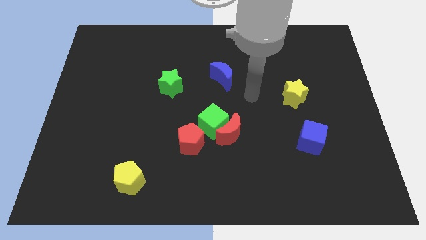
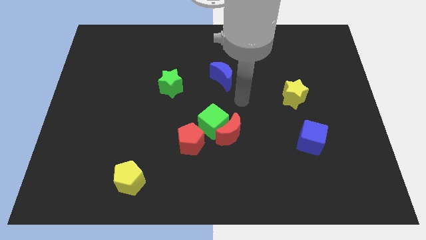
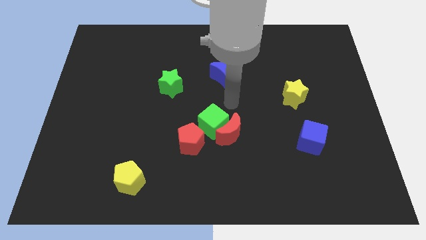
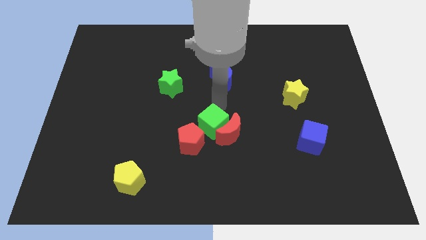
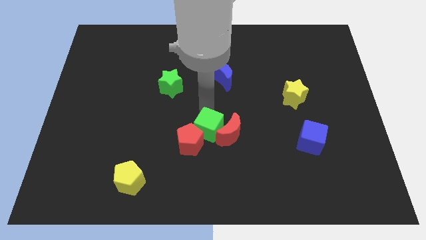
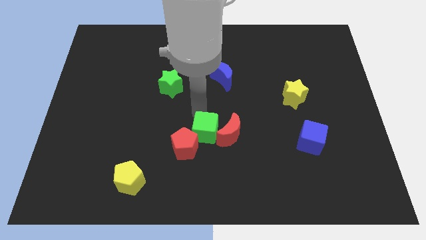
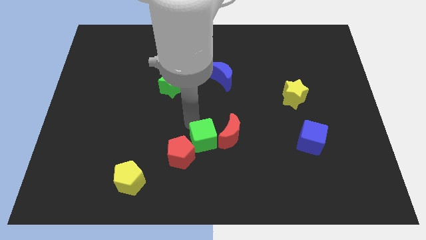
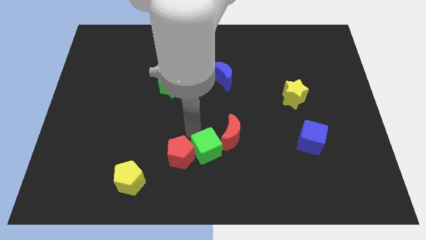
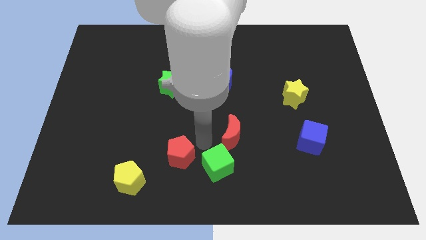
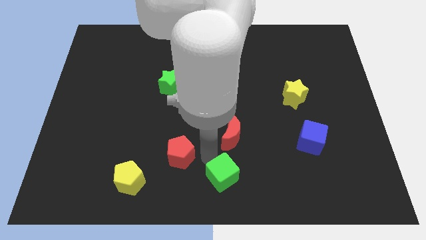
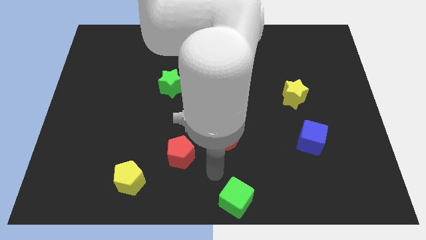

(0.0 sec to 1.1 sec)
move the green cube away from the red moon and red pentagon

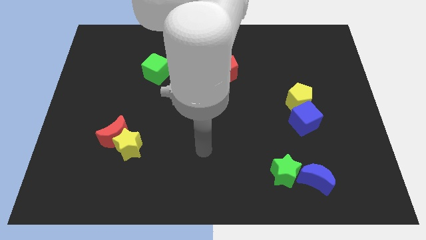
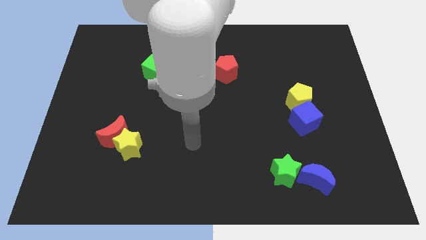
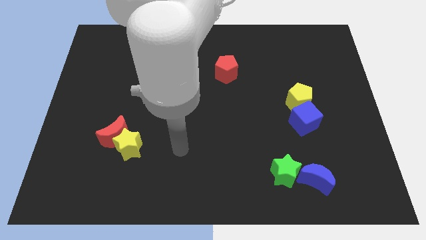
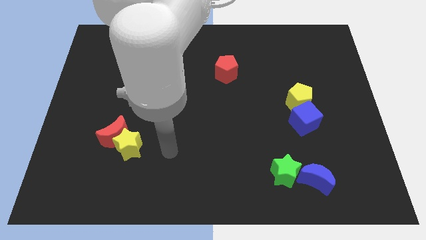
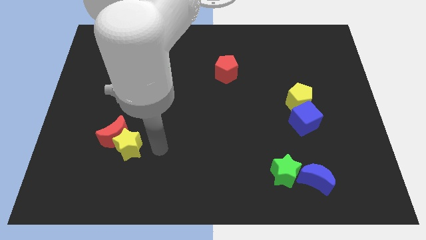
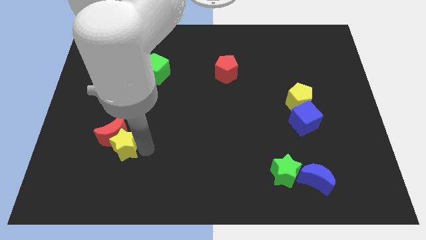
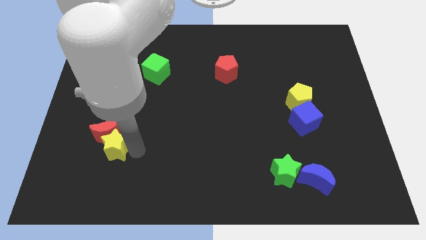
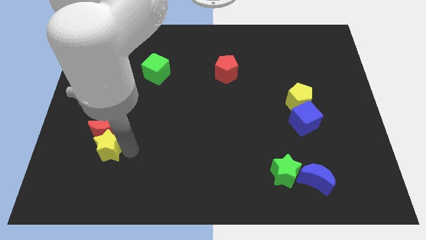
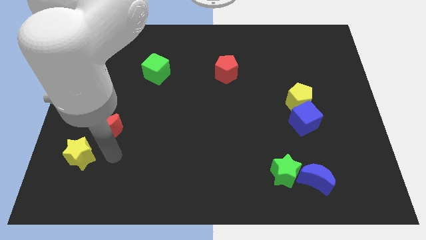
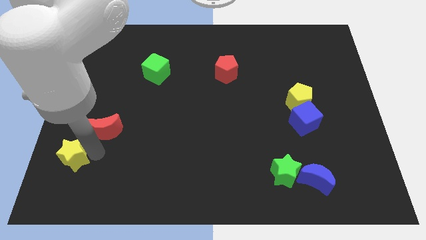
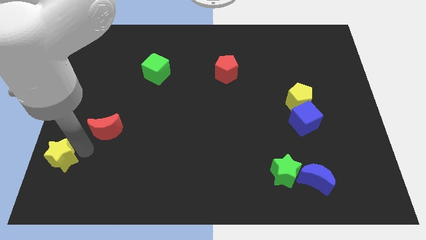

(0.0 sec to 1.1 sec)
separate the red moon from the yellow star

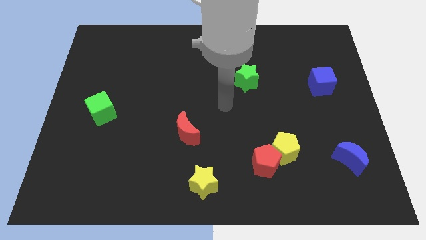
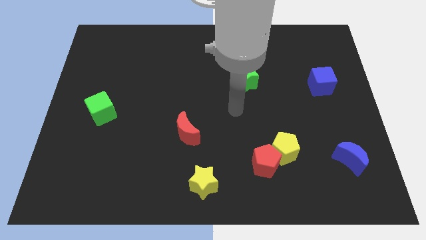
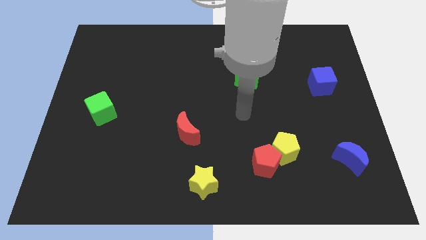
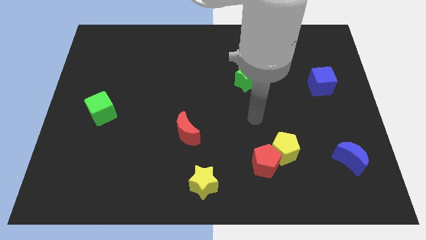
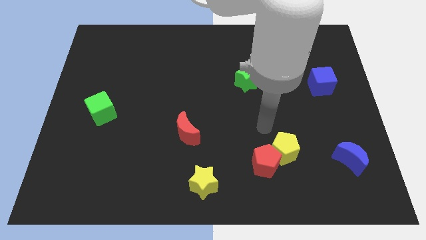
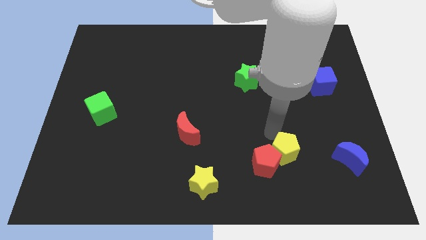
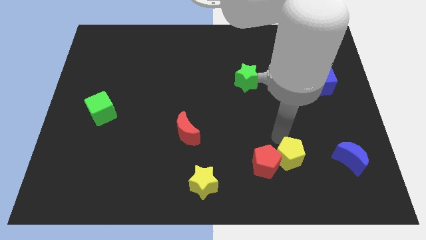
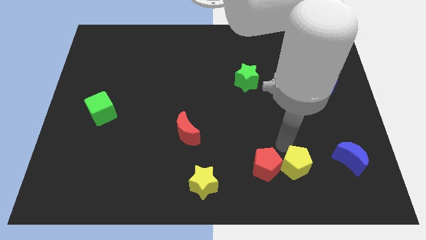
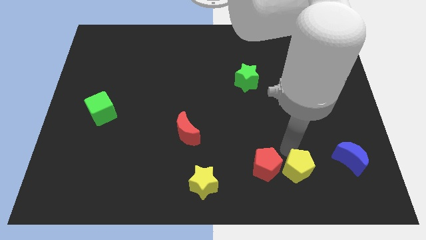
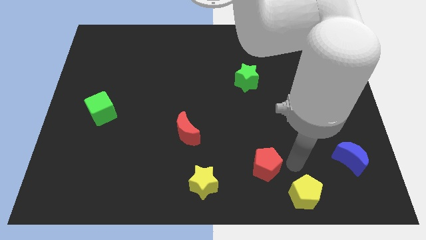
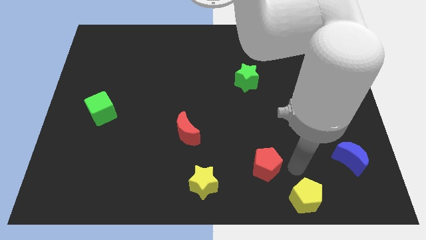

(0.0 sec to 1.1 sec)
separate the red pentagon from the yellow pentagon

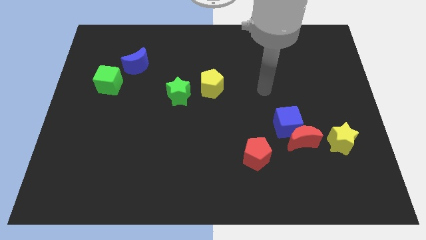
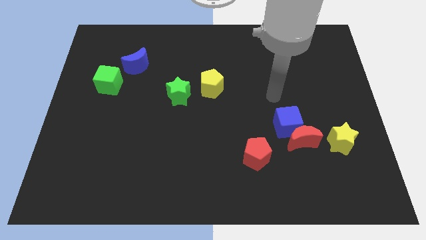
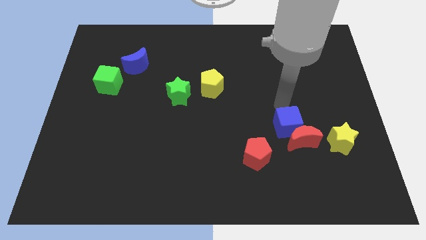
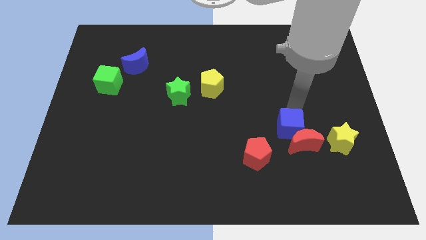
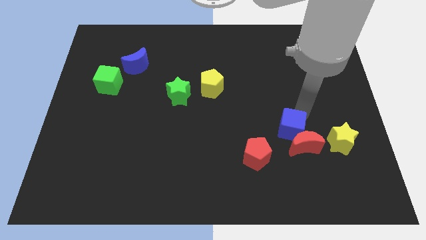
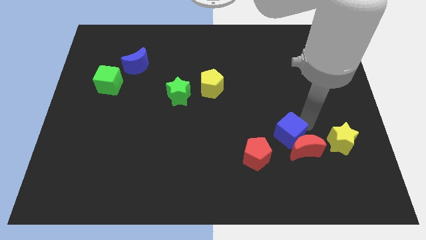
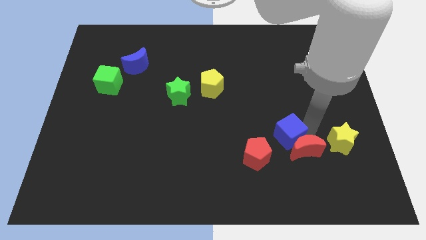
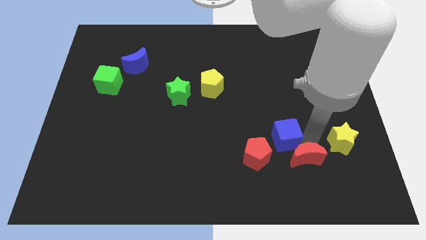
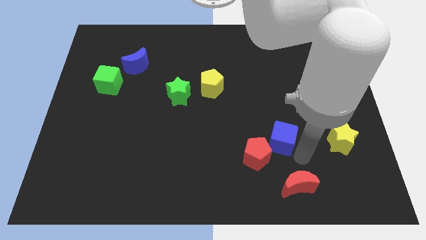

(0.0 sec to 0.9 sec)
move the blue cube away from the red moon

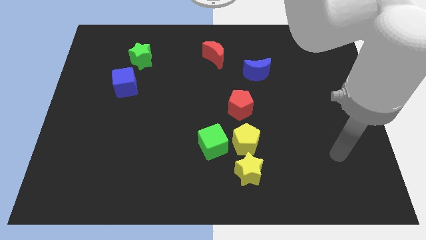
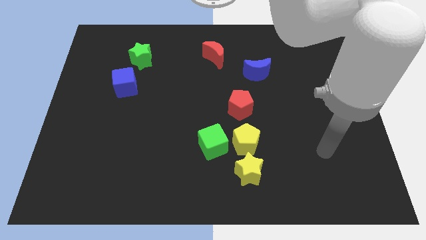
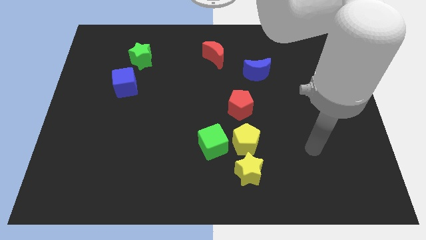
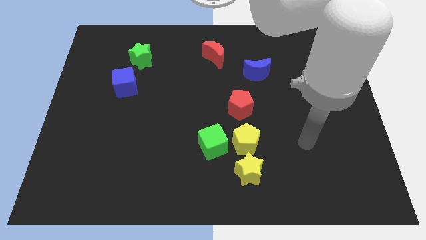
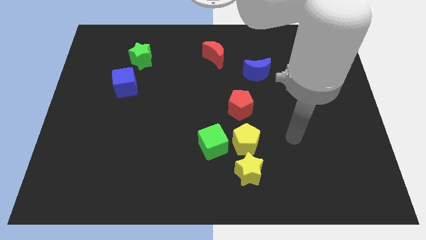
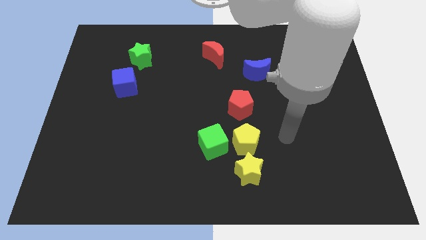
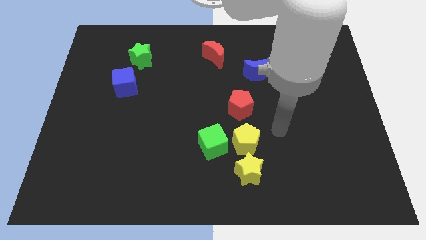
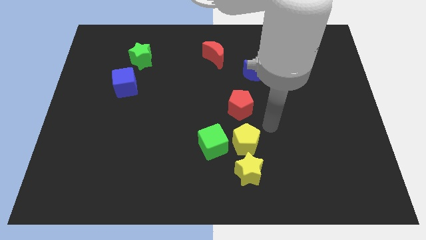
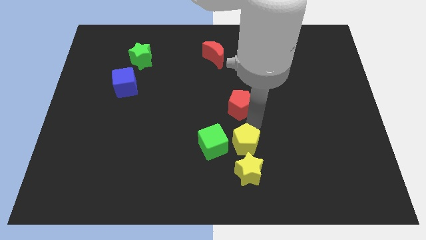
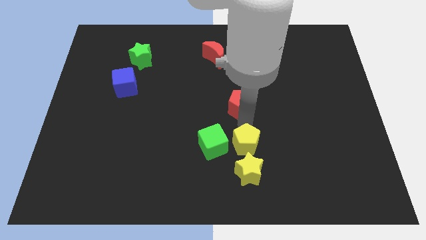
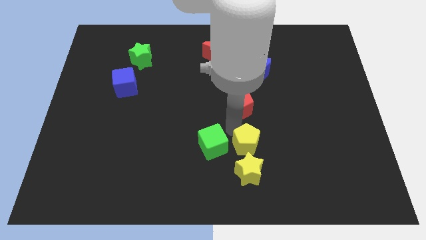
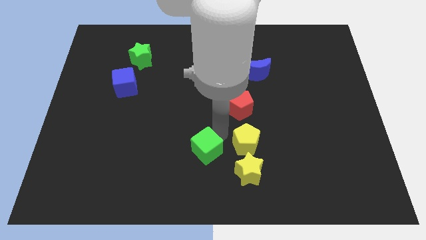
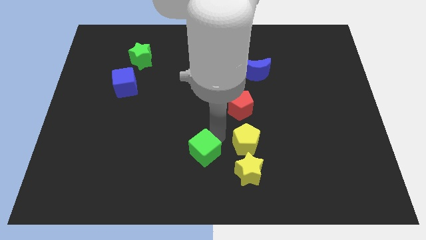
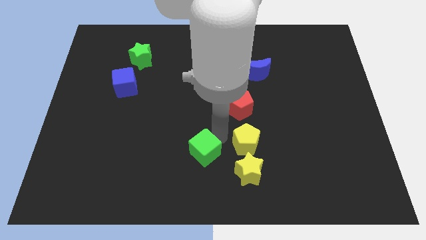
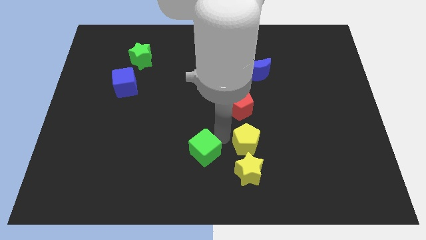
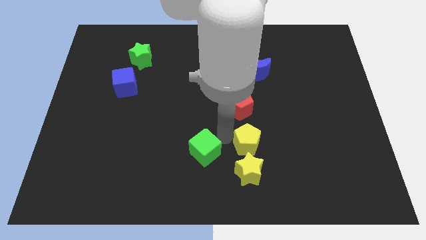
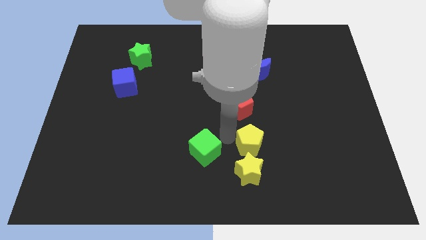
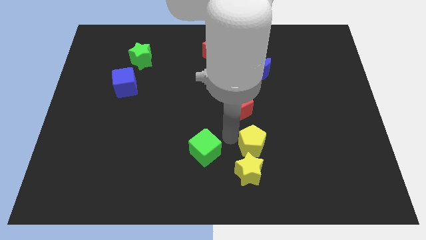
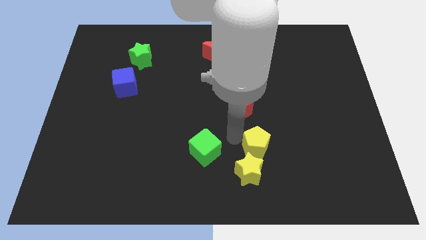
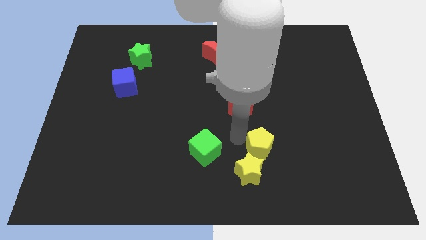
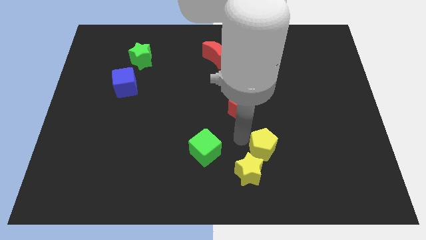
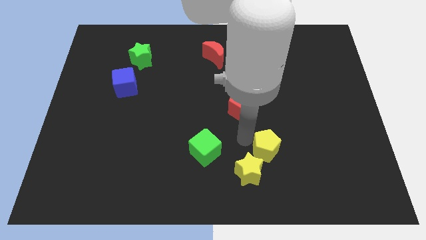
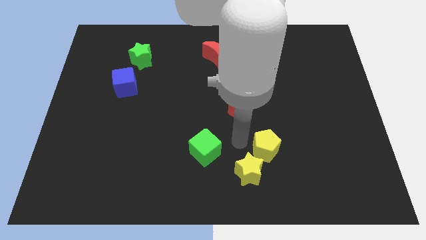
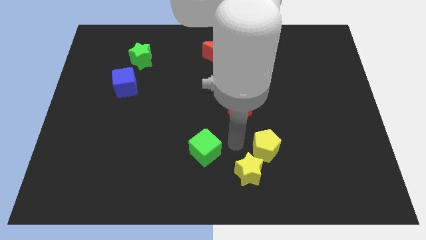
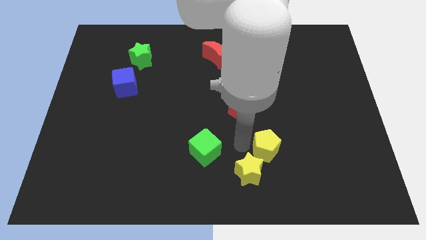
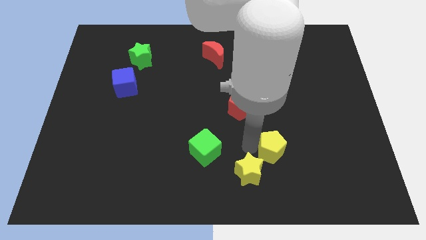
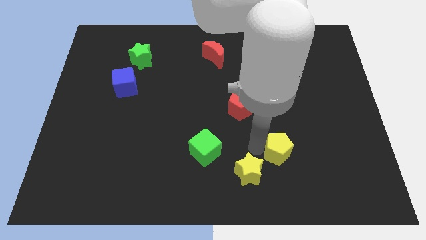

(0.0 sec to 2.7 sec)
pull the yellow pentagon apart from the green cube, yellow star, and red pentagon

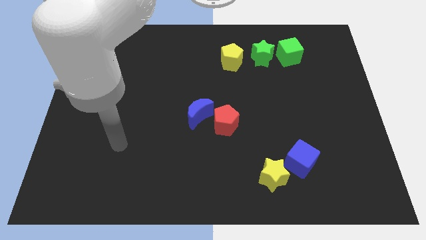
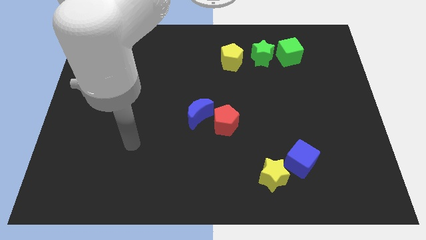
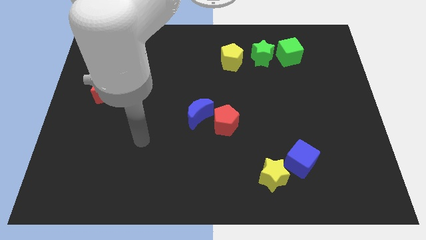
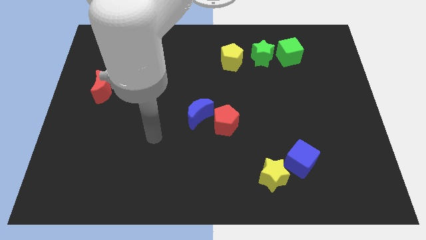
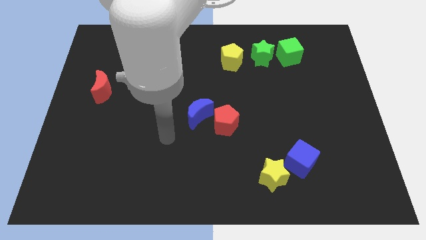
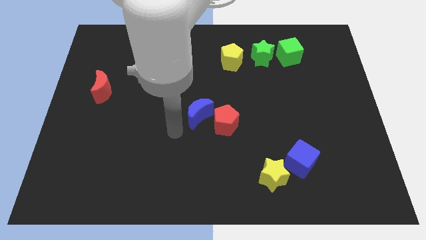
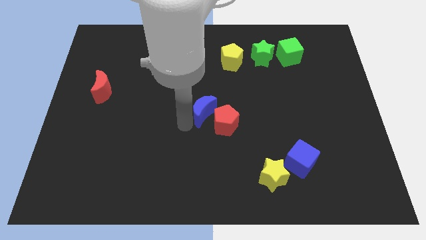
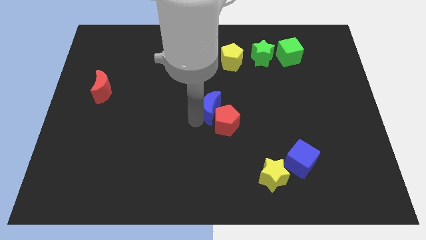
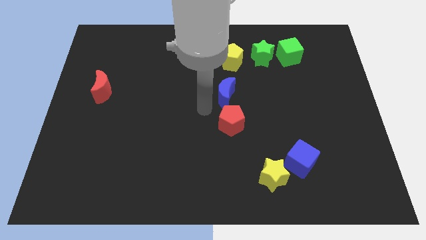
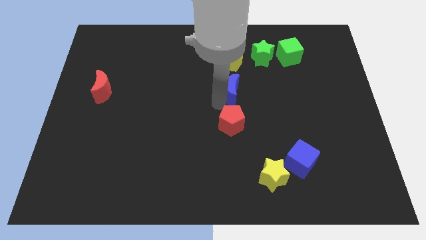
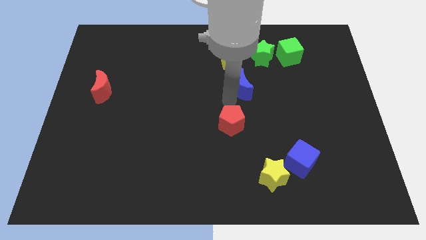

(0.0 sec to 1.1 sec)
separate the red pentagon from the blue moon

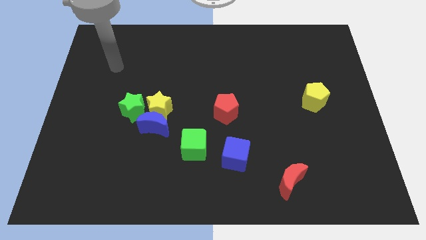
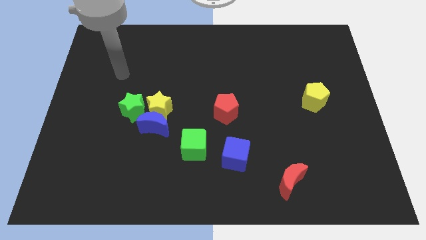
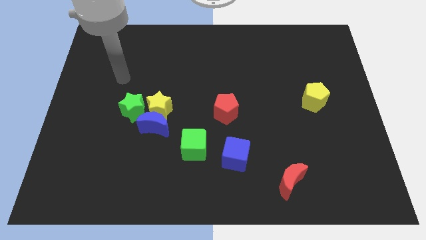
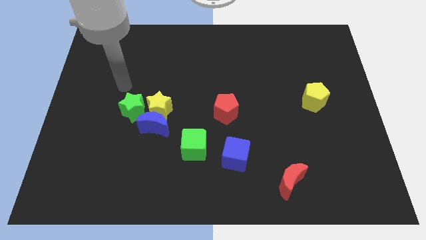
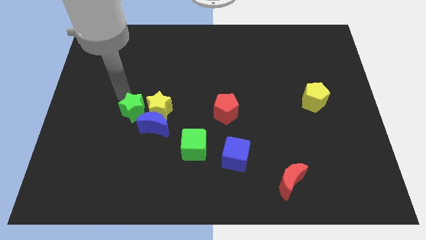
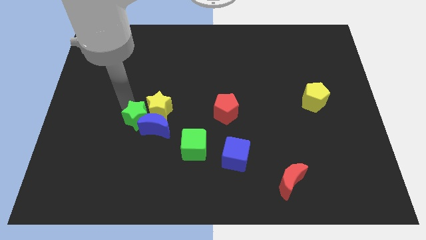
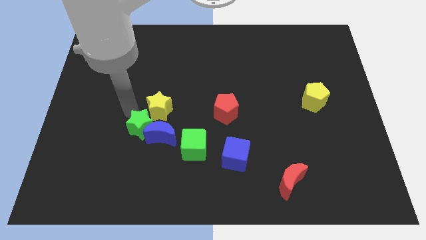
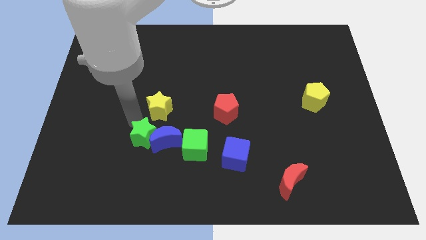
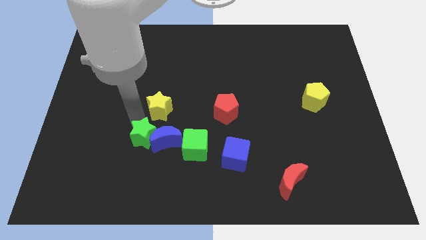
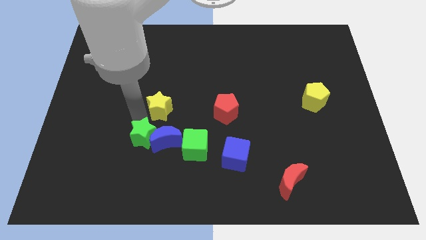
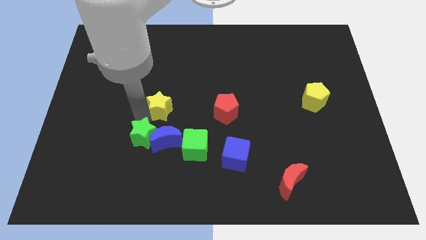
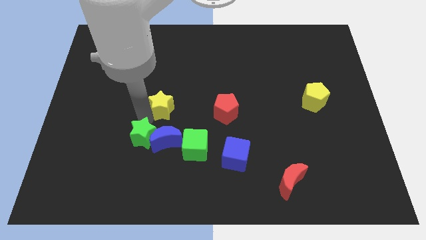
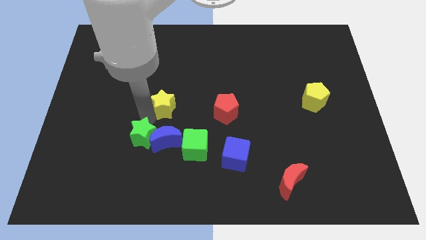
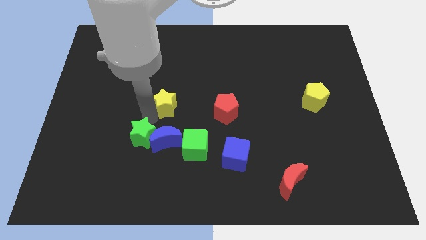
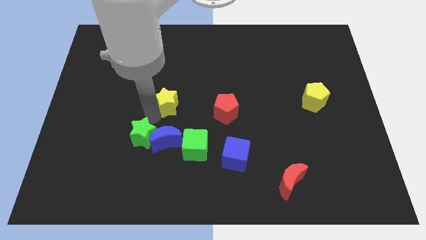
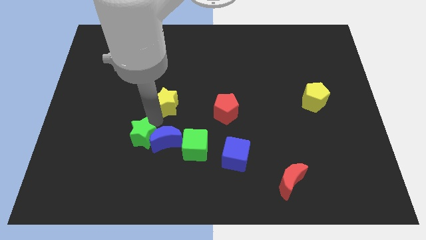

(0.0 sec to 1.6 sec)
move the yellow star away from the blue moon and green star
